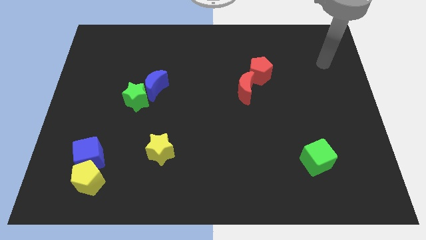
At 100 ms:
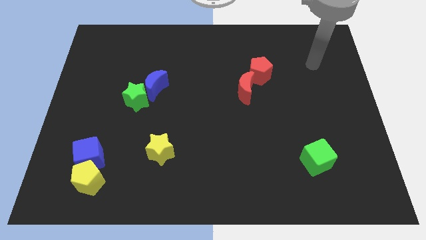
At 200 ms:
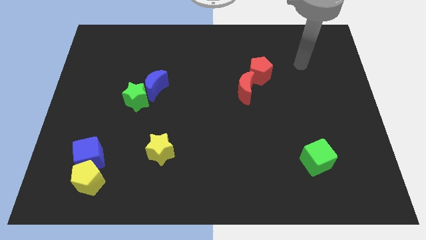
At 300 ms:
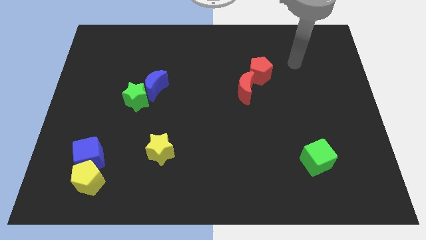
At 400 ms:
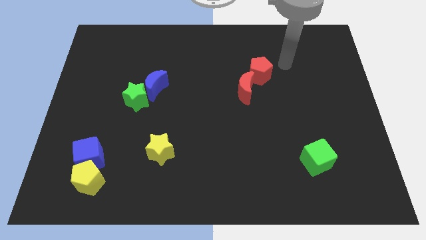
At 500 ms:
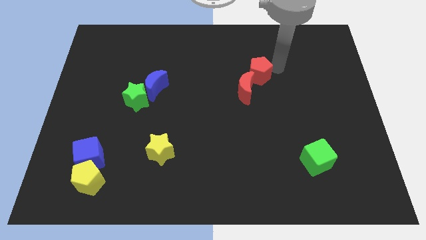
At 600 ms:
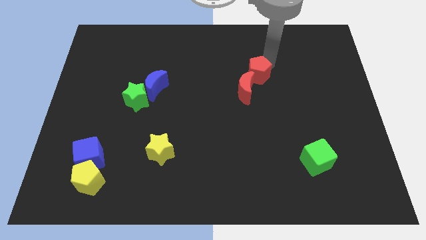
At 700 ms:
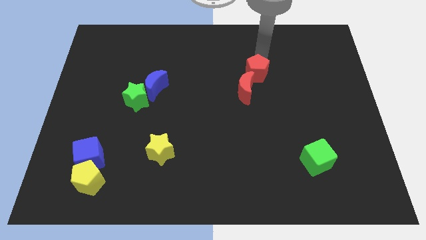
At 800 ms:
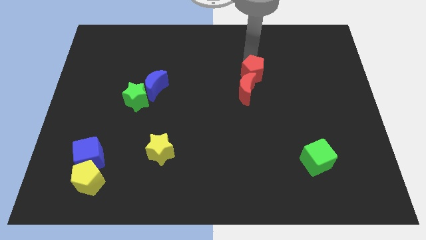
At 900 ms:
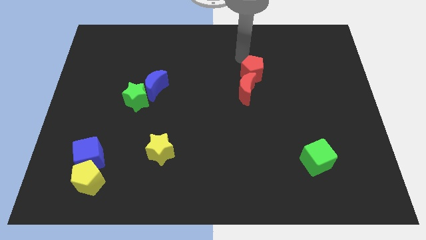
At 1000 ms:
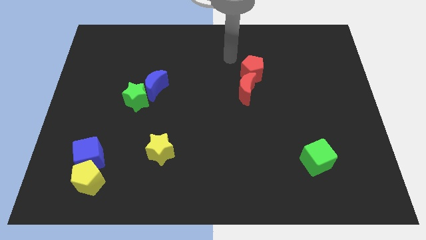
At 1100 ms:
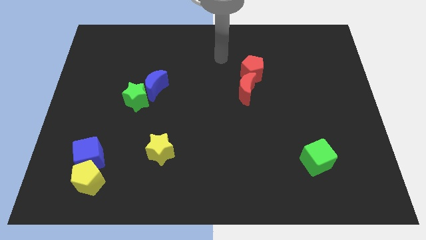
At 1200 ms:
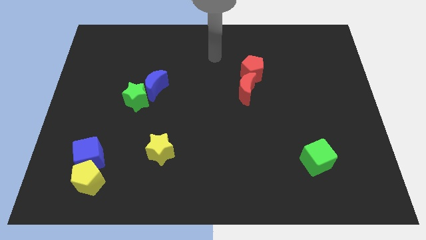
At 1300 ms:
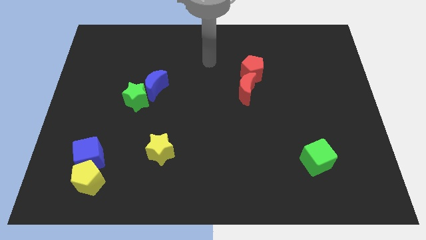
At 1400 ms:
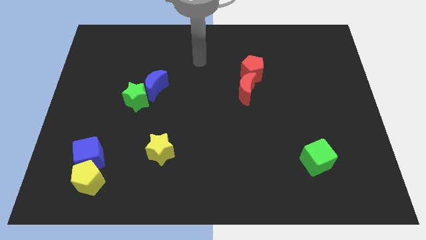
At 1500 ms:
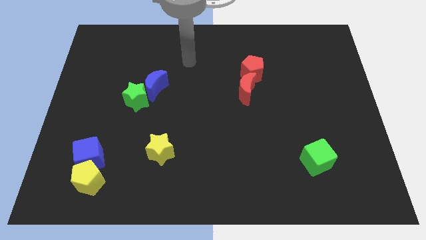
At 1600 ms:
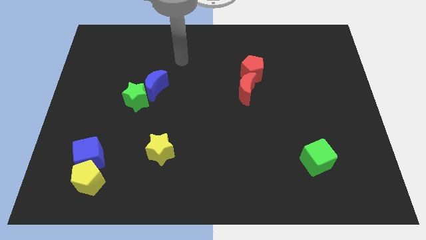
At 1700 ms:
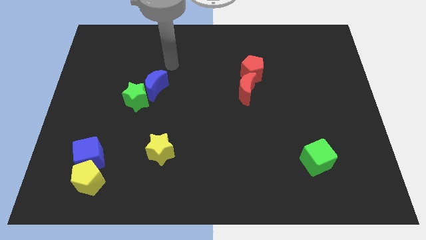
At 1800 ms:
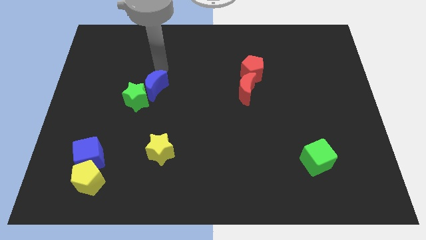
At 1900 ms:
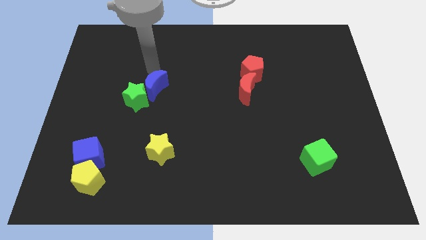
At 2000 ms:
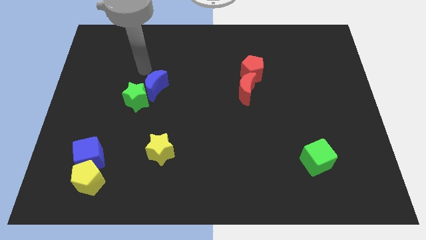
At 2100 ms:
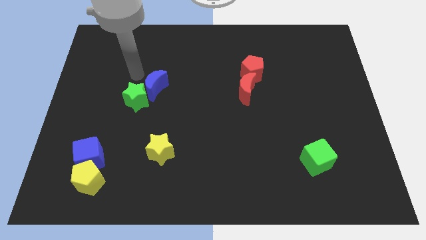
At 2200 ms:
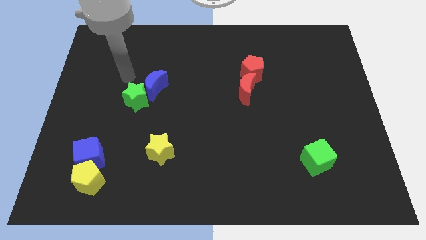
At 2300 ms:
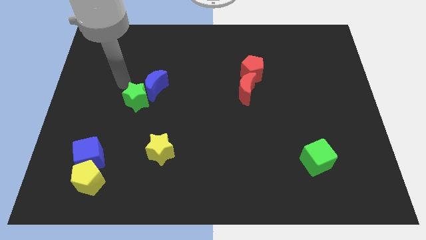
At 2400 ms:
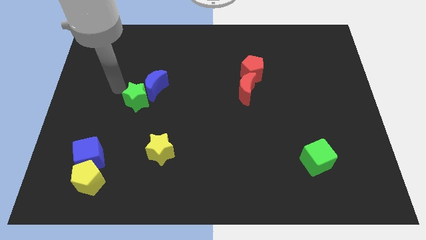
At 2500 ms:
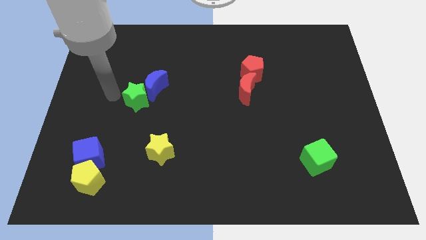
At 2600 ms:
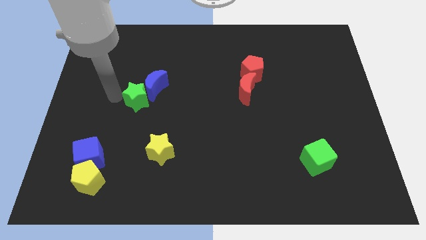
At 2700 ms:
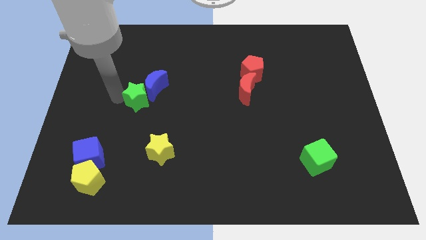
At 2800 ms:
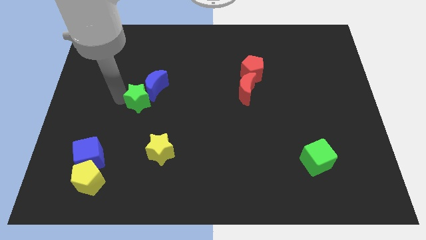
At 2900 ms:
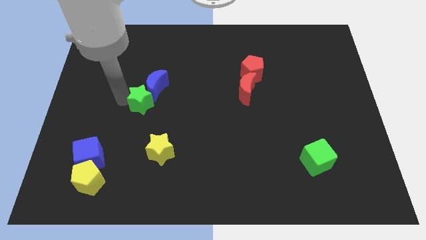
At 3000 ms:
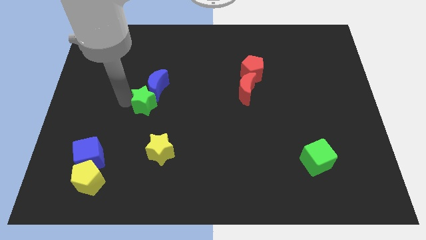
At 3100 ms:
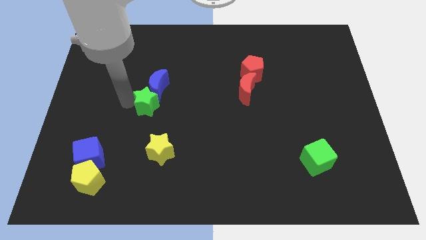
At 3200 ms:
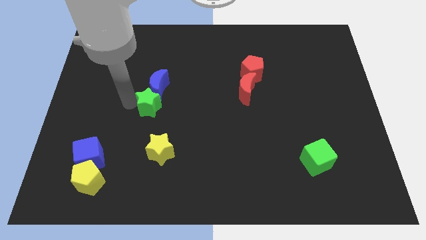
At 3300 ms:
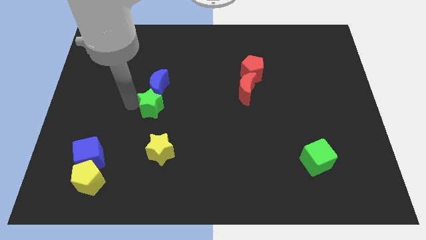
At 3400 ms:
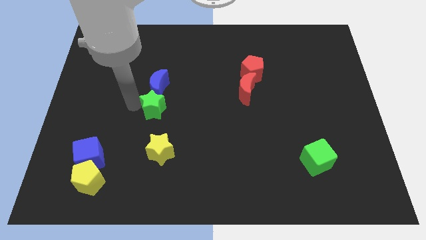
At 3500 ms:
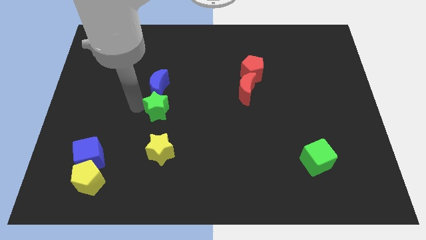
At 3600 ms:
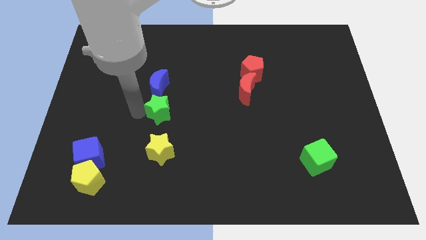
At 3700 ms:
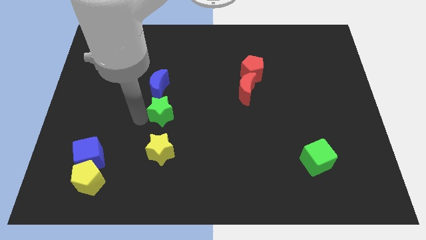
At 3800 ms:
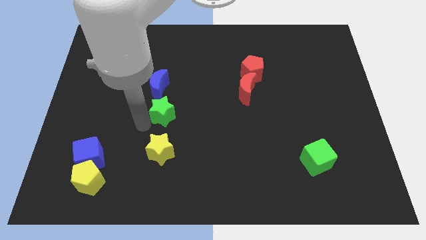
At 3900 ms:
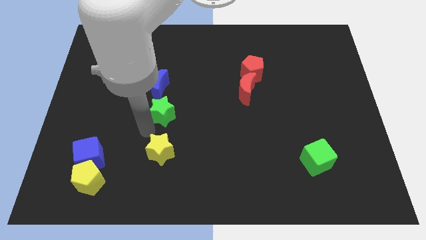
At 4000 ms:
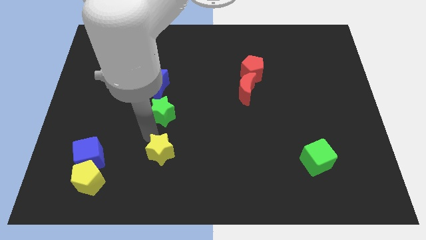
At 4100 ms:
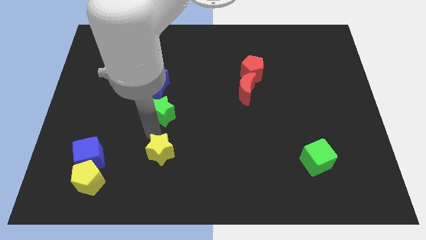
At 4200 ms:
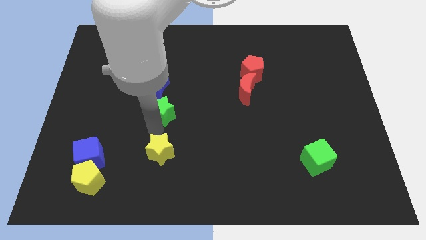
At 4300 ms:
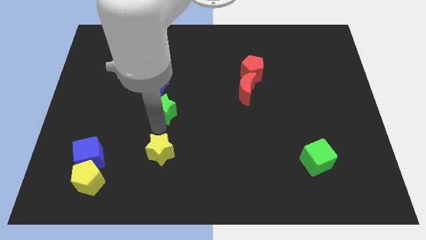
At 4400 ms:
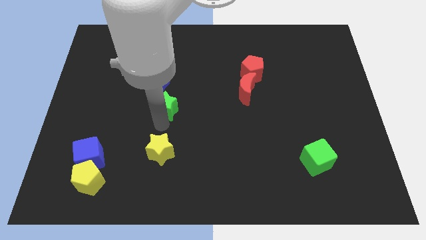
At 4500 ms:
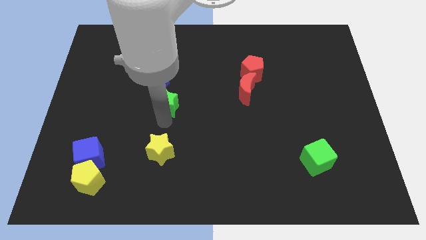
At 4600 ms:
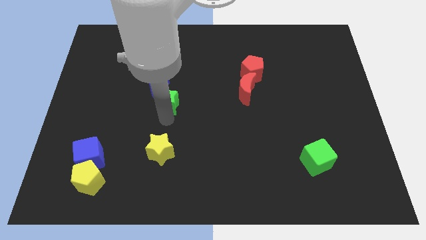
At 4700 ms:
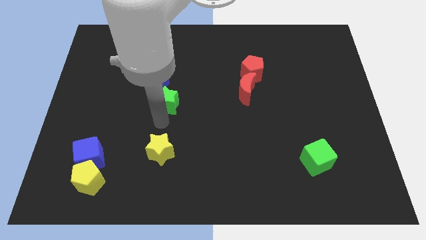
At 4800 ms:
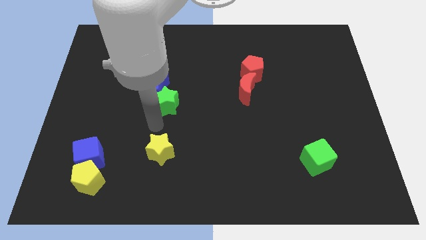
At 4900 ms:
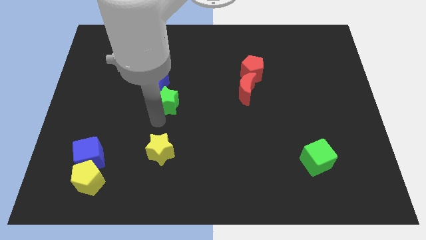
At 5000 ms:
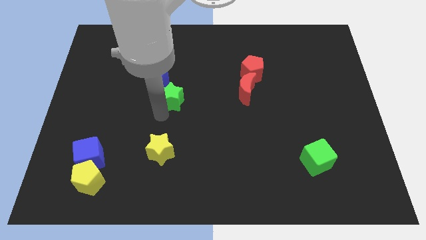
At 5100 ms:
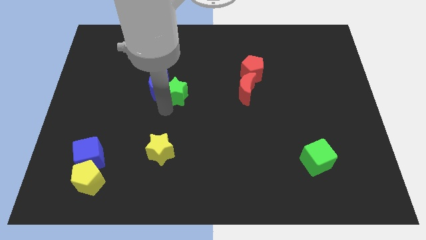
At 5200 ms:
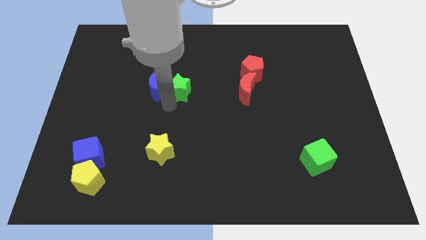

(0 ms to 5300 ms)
slightly slide the green star upwards and to the right diagonally

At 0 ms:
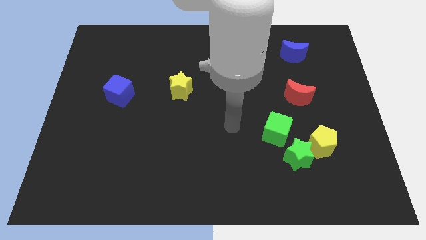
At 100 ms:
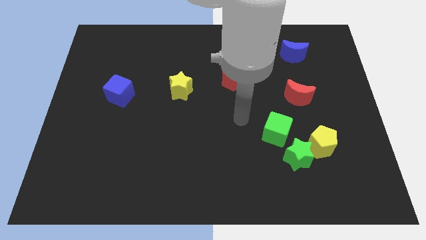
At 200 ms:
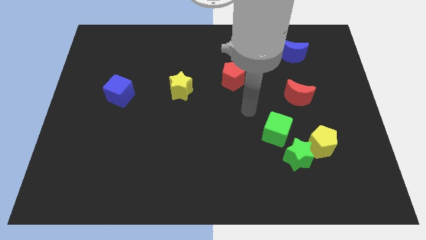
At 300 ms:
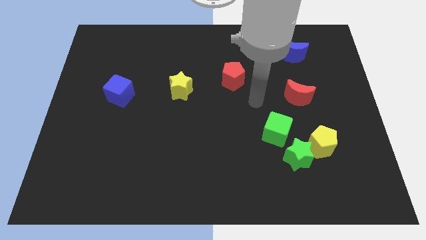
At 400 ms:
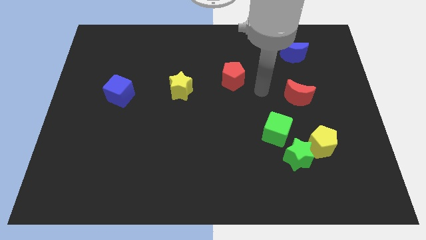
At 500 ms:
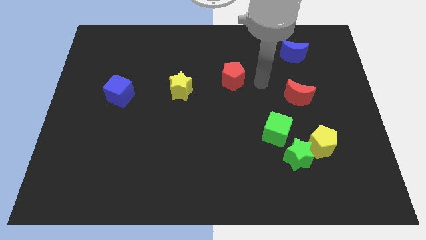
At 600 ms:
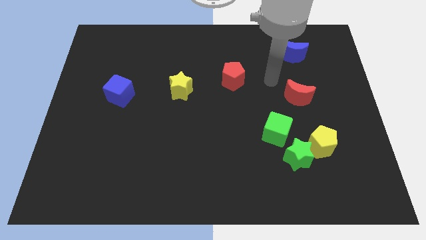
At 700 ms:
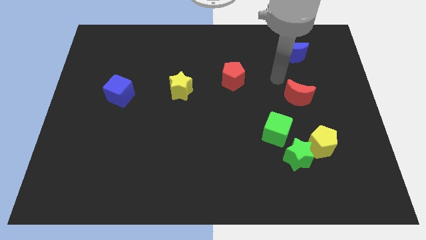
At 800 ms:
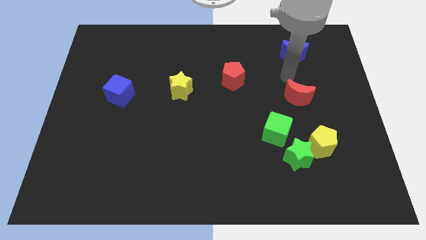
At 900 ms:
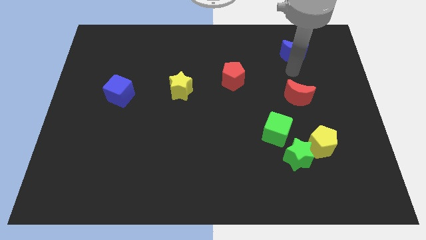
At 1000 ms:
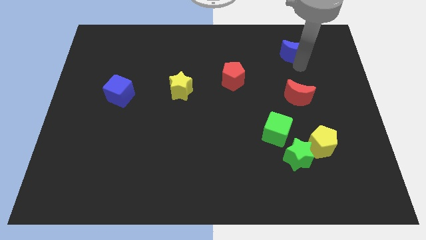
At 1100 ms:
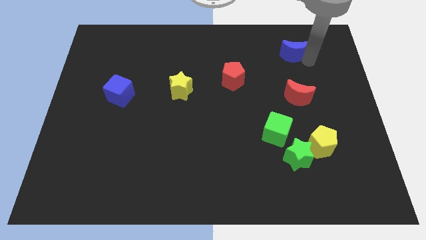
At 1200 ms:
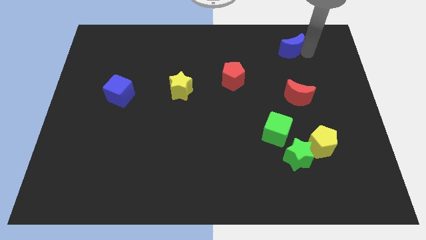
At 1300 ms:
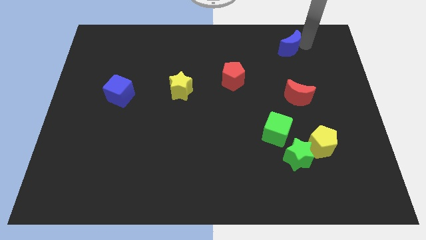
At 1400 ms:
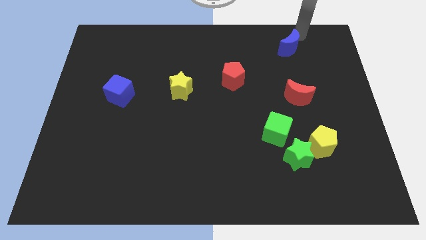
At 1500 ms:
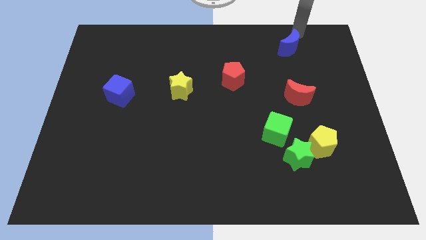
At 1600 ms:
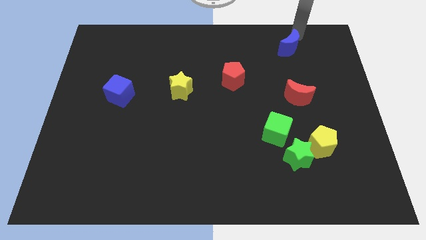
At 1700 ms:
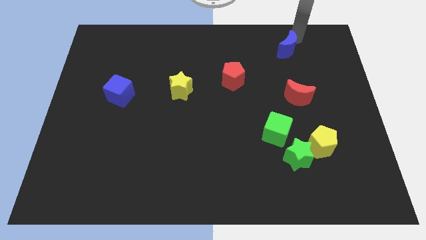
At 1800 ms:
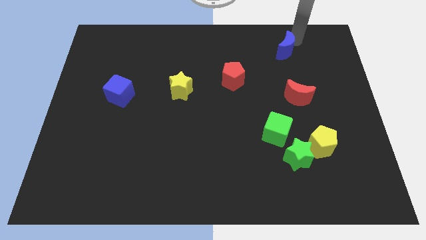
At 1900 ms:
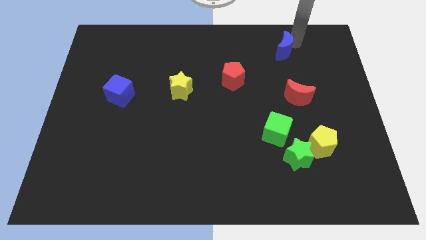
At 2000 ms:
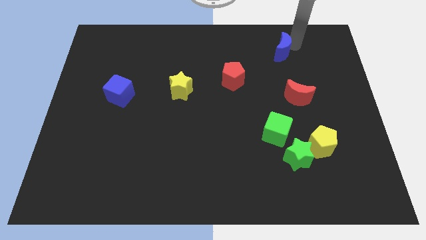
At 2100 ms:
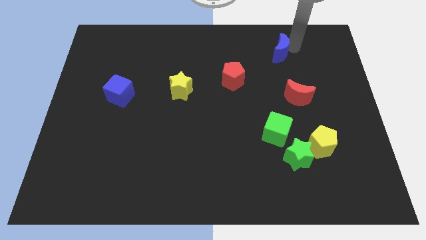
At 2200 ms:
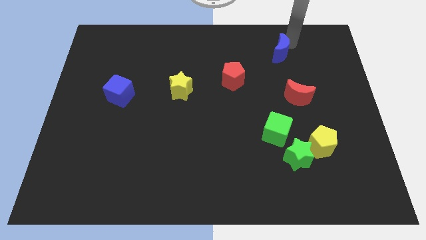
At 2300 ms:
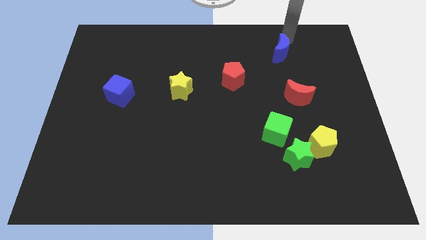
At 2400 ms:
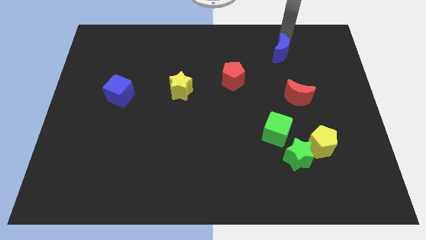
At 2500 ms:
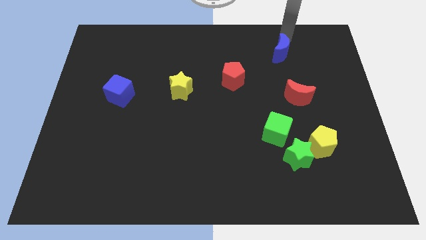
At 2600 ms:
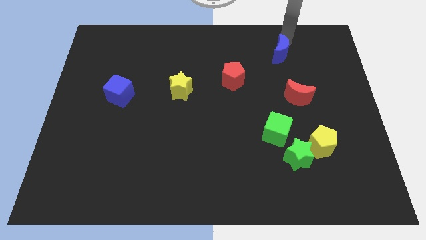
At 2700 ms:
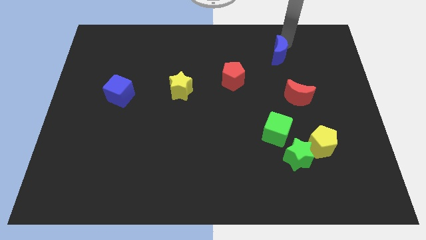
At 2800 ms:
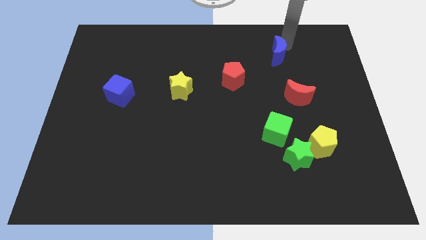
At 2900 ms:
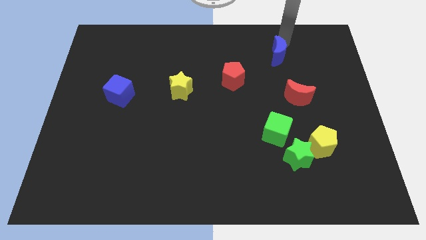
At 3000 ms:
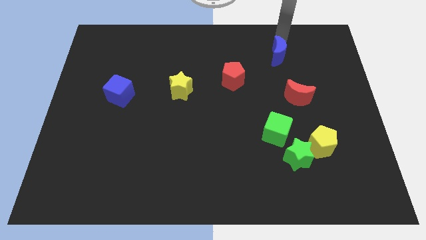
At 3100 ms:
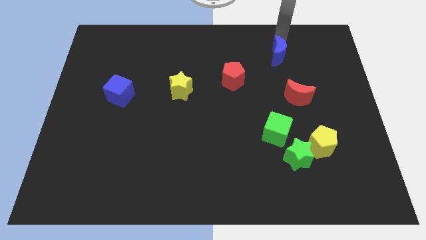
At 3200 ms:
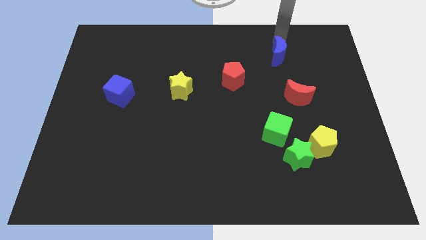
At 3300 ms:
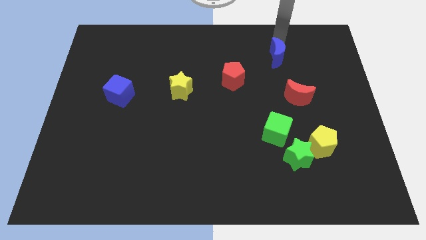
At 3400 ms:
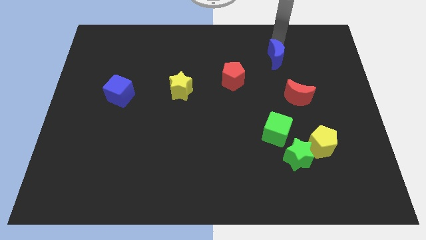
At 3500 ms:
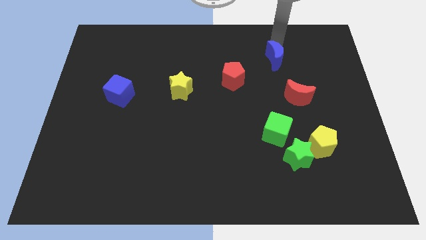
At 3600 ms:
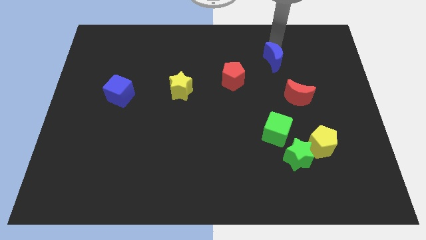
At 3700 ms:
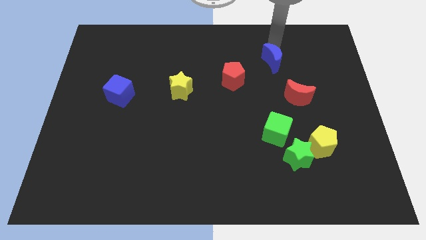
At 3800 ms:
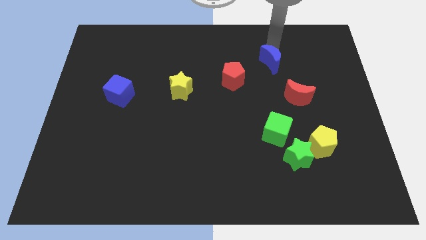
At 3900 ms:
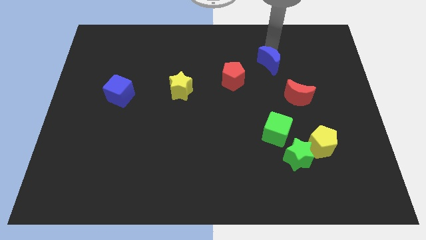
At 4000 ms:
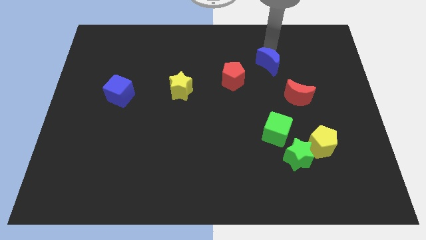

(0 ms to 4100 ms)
move the blue moon a little bit downwards and to the left
